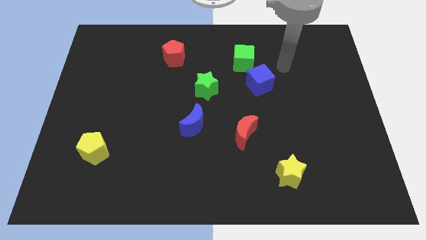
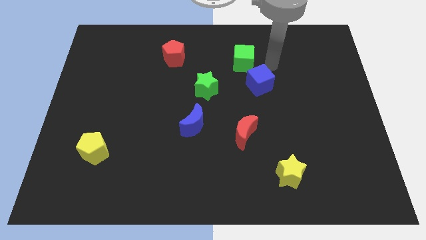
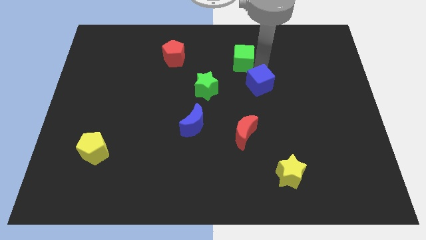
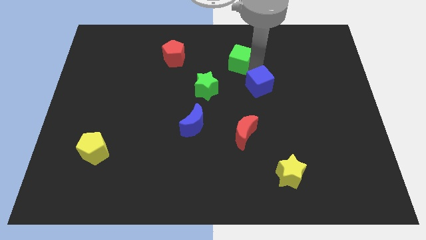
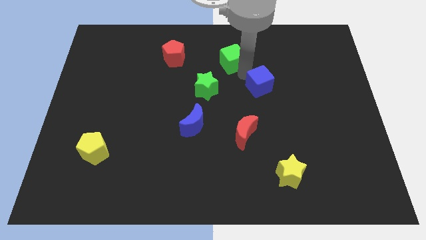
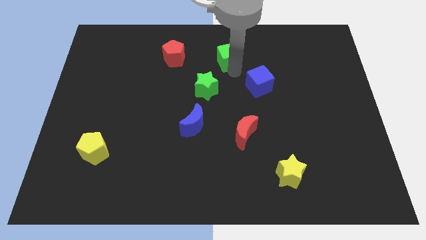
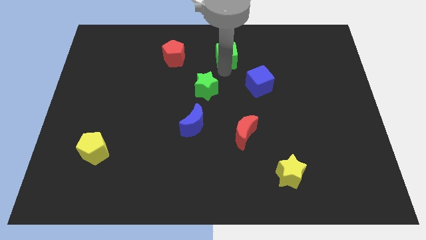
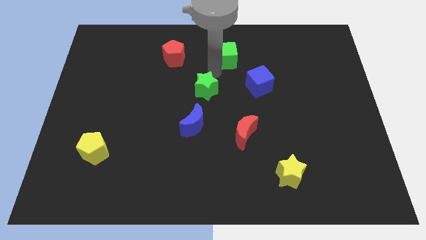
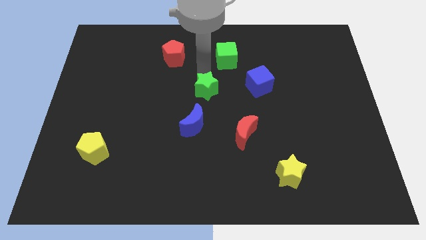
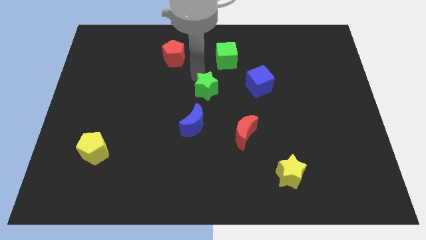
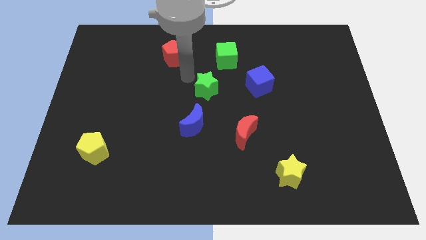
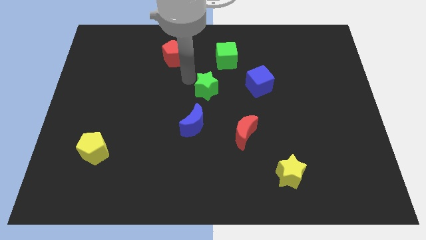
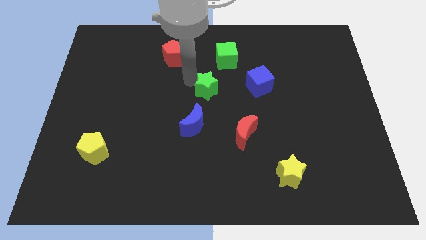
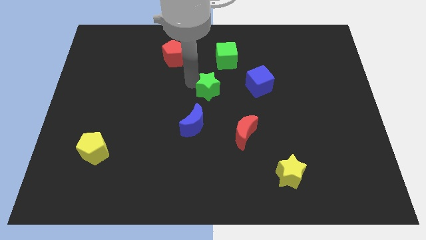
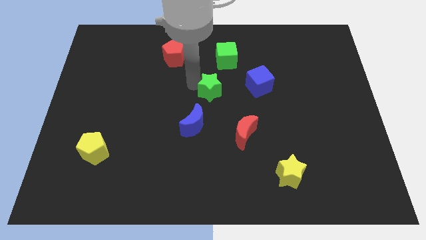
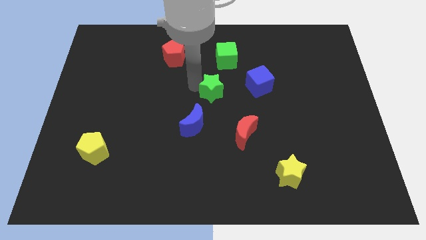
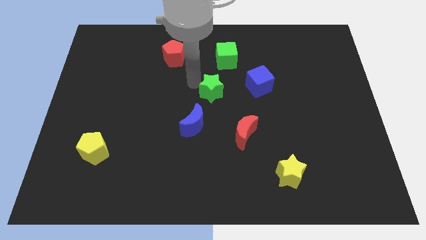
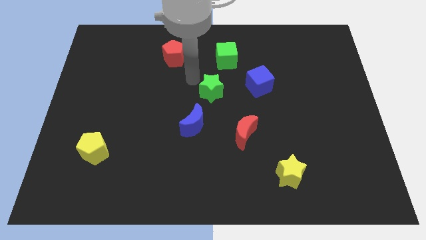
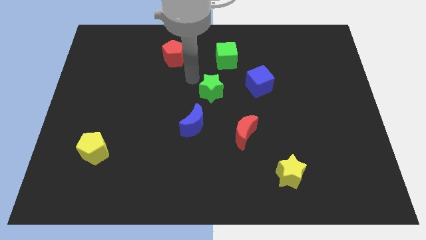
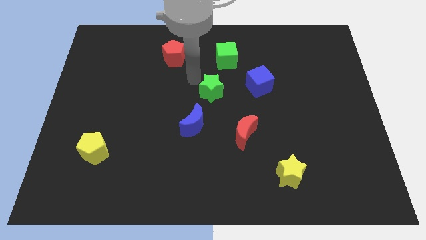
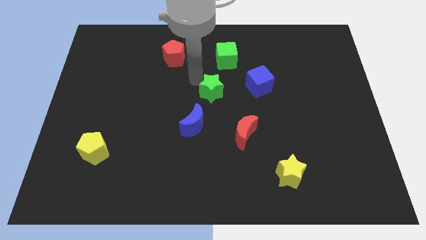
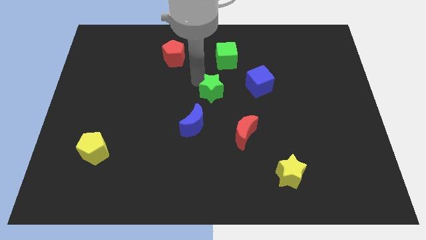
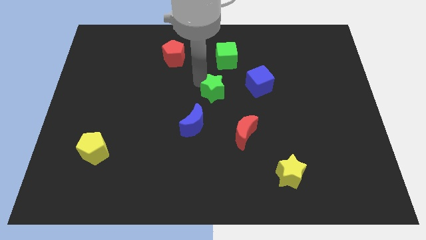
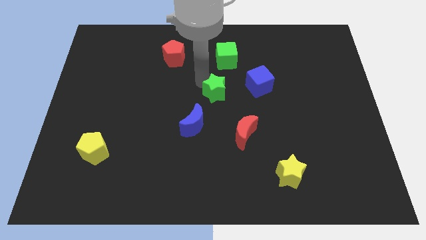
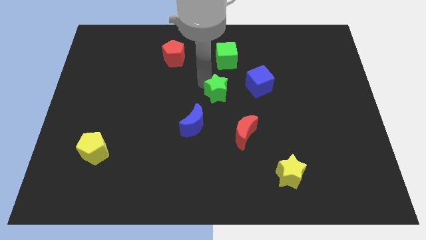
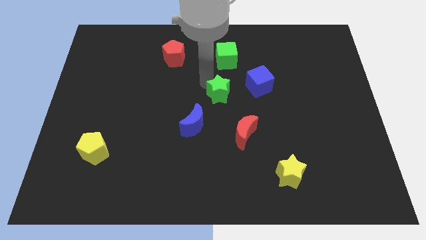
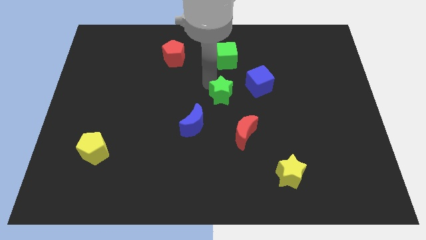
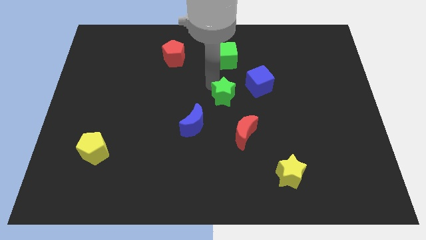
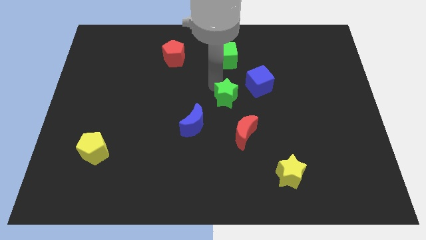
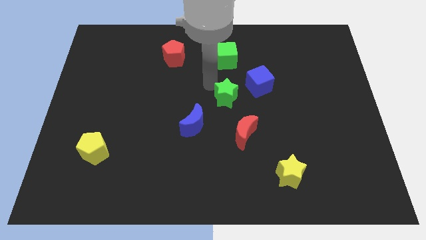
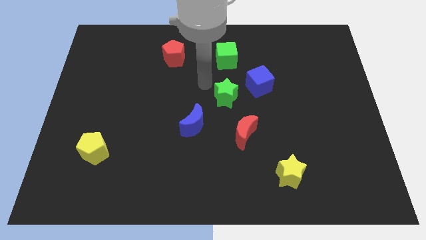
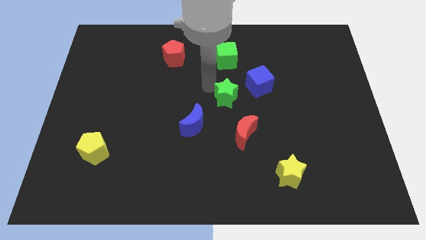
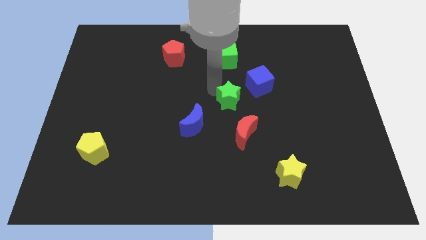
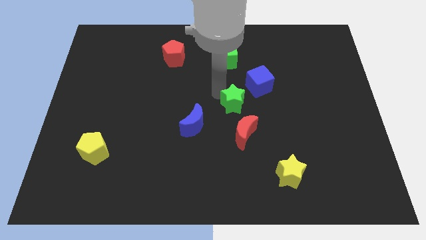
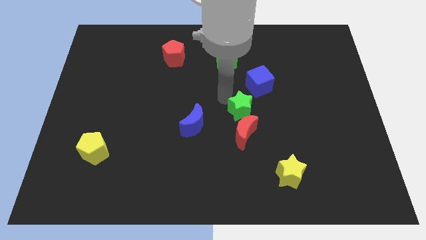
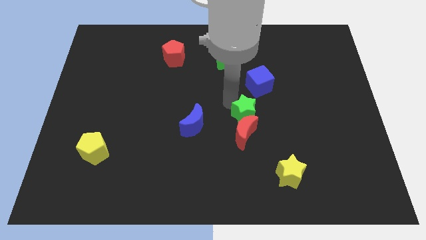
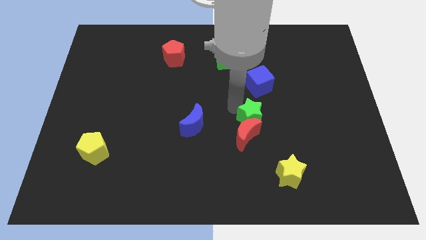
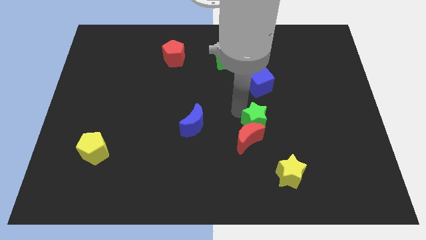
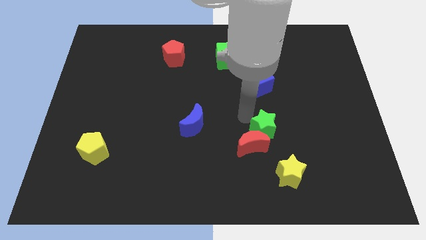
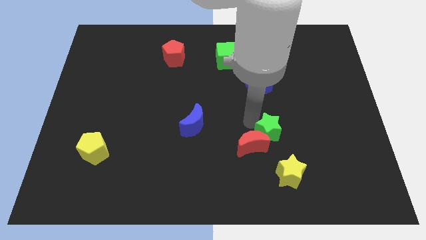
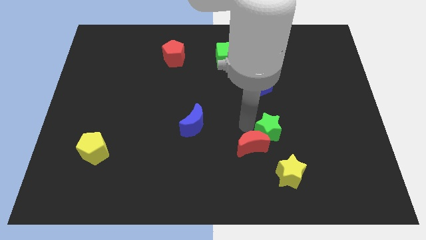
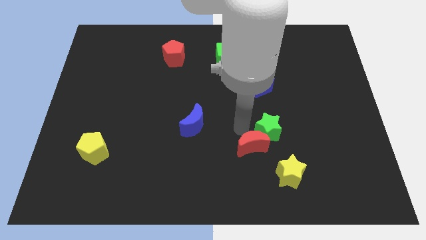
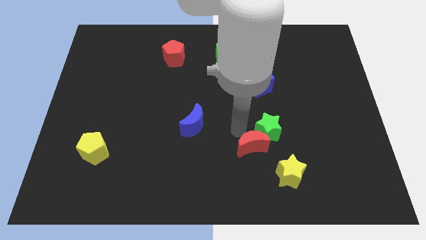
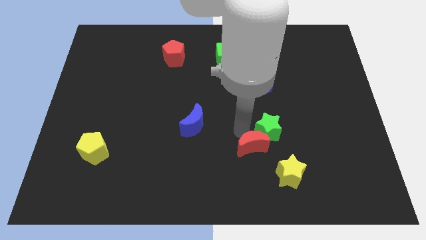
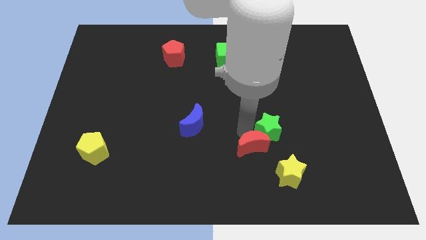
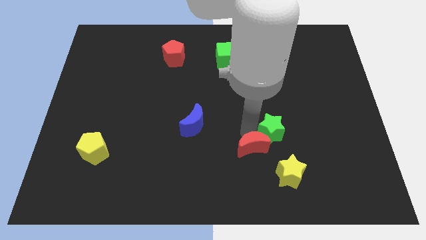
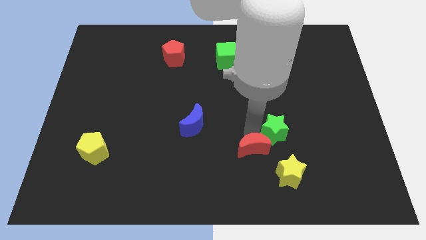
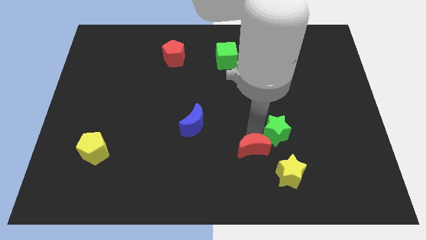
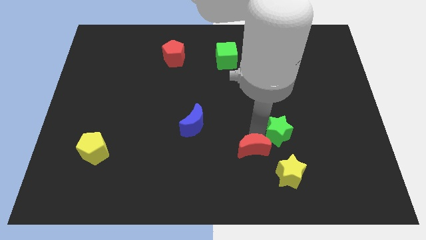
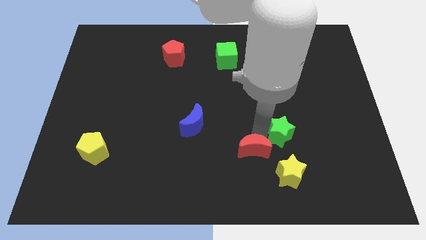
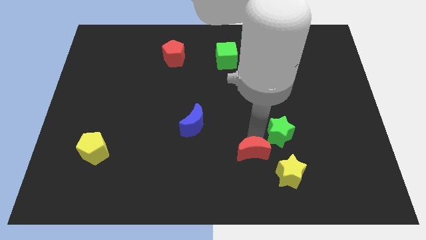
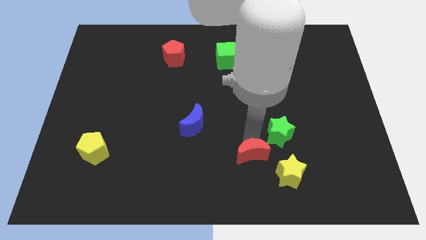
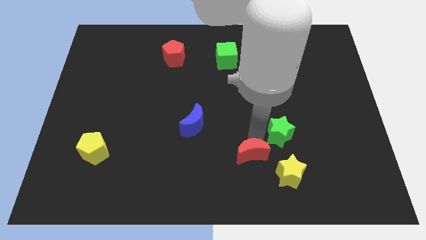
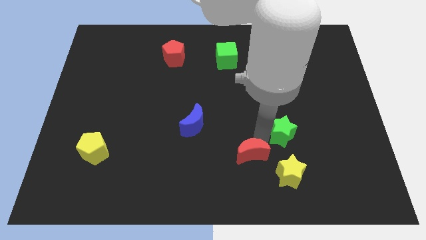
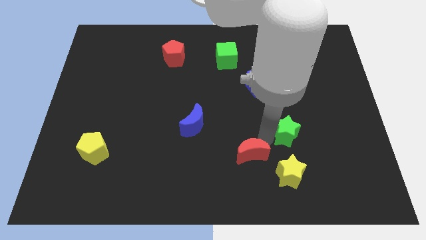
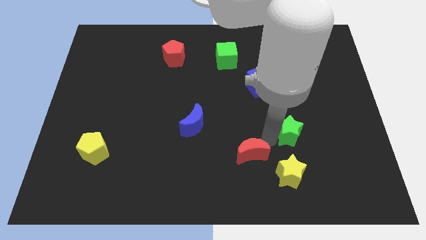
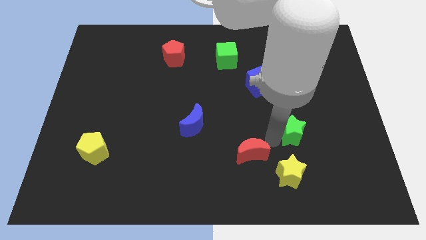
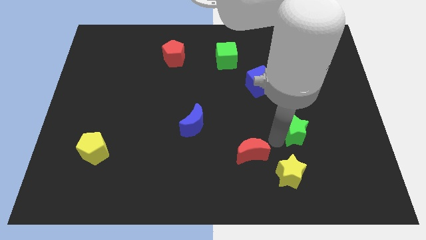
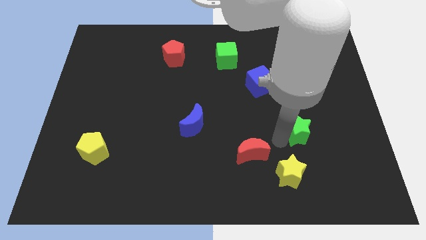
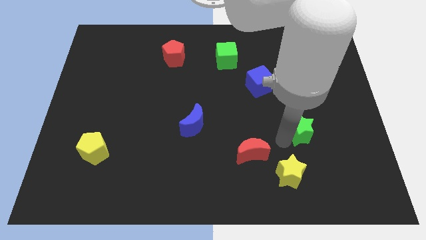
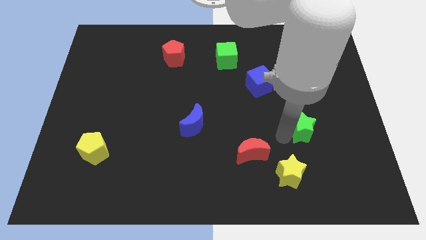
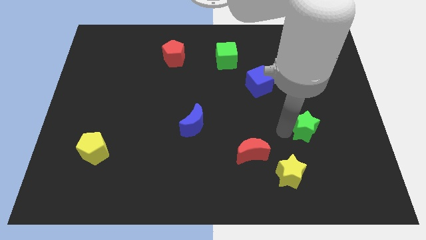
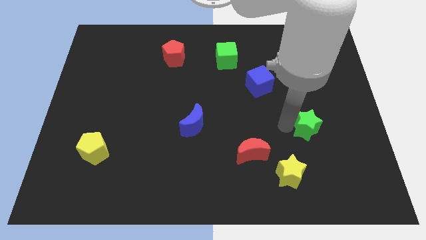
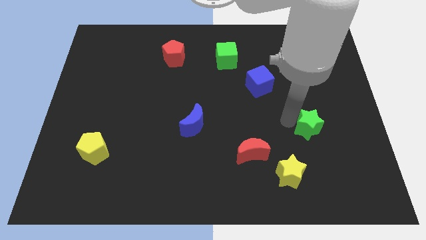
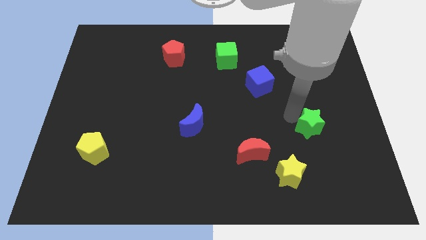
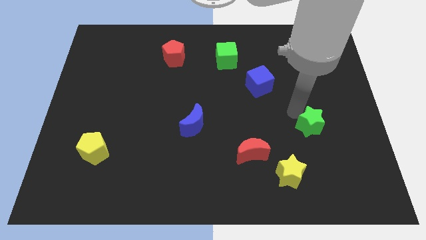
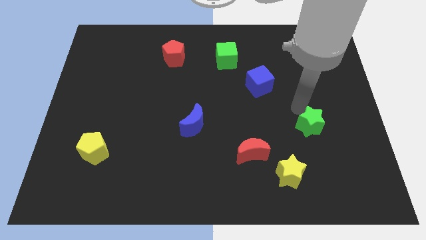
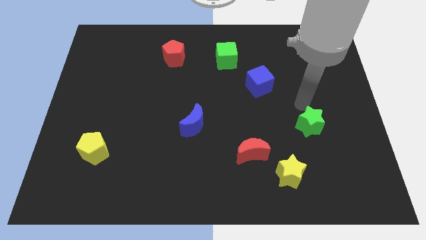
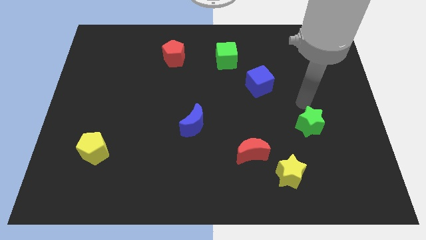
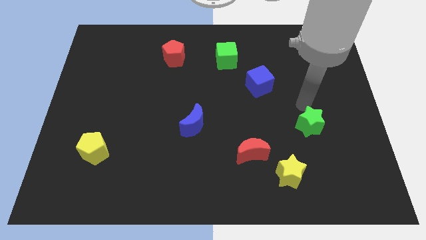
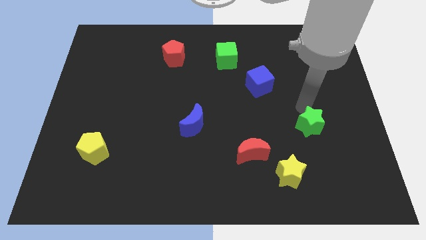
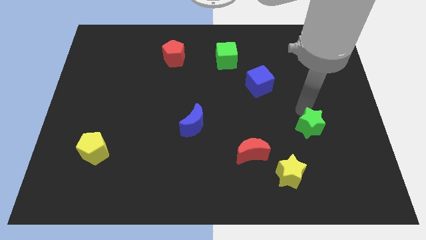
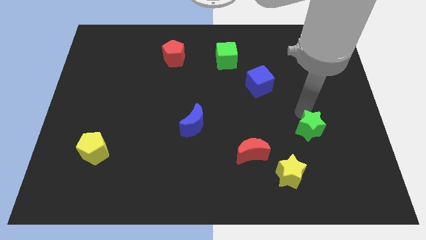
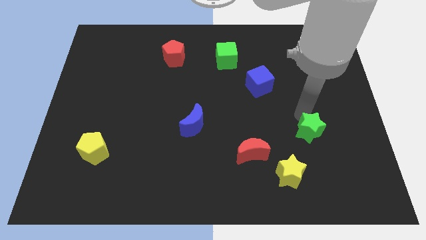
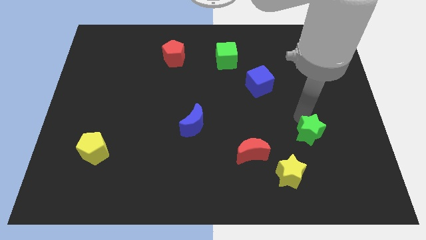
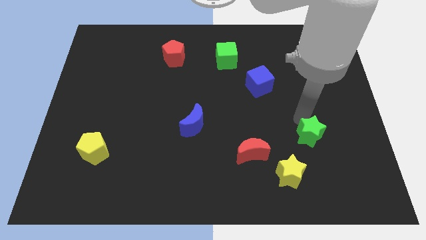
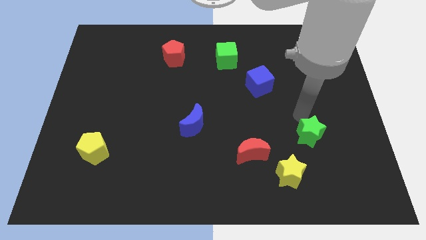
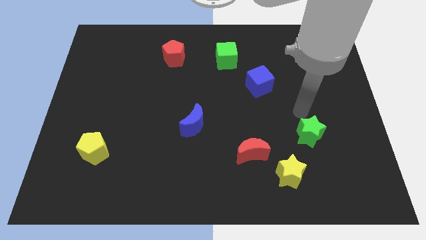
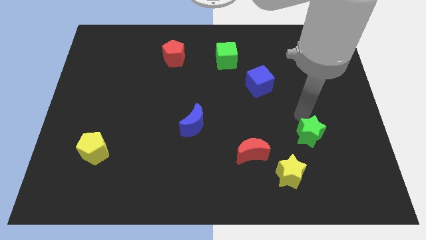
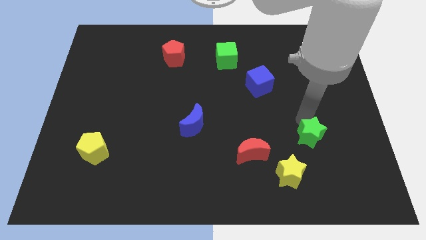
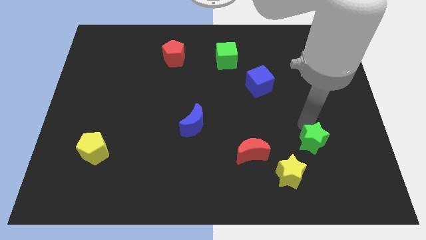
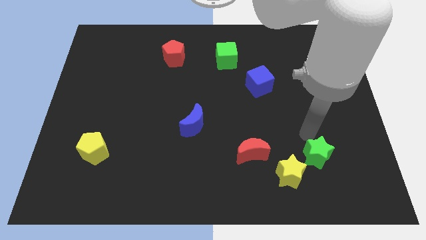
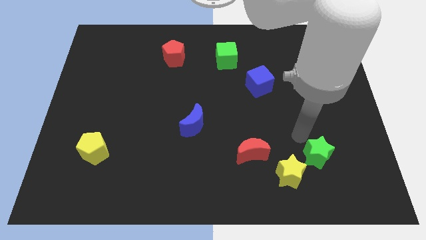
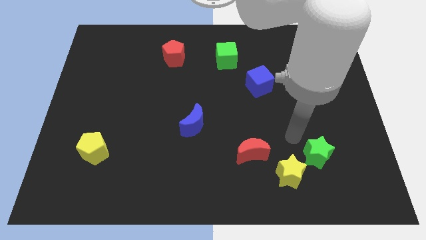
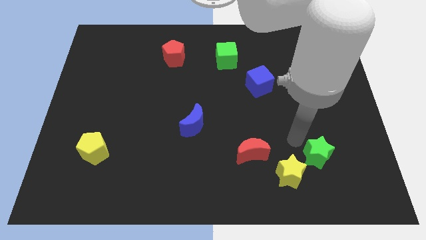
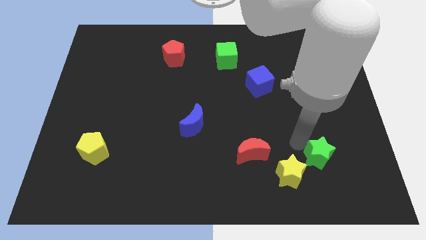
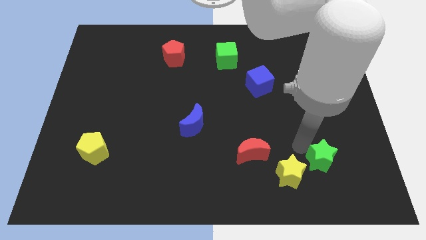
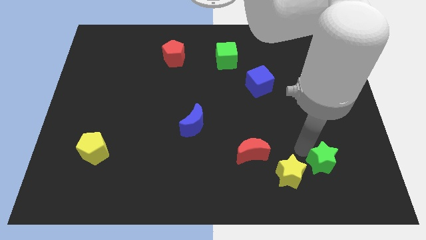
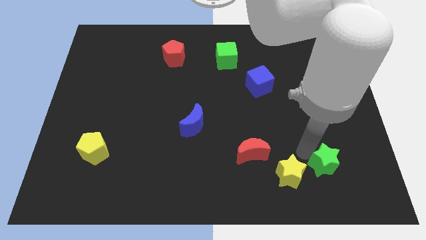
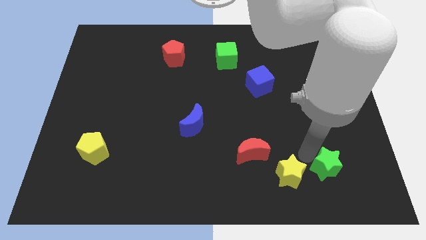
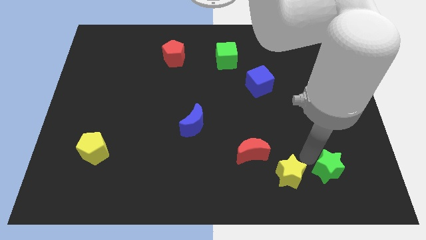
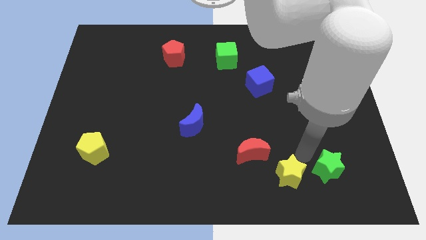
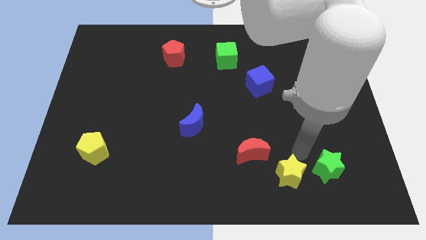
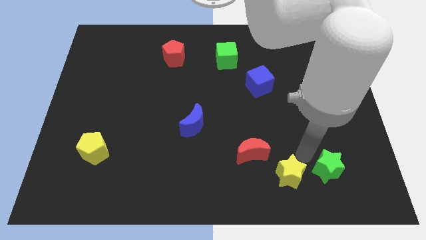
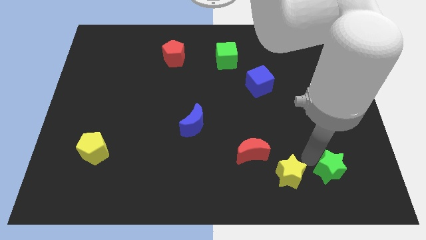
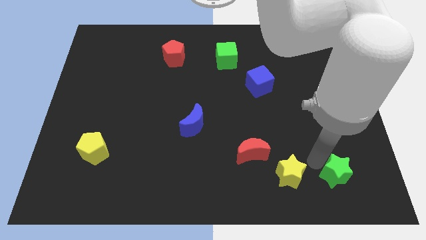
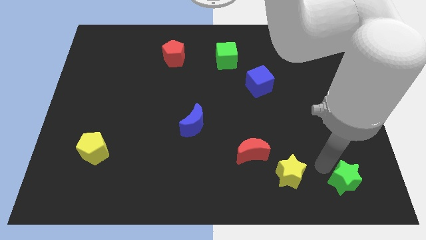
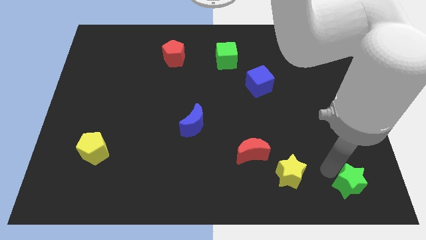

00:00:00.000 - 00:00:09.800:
slide the green star to the bottom right corner
